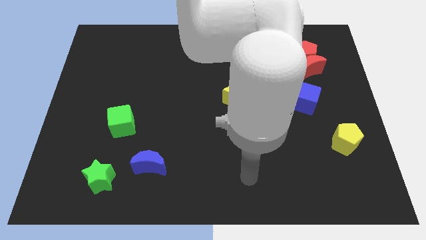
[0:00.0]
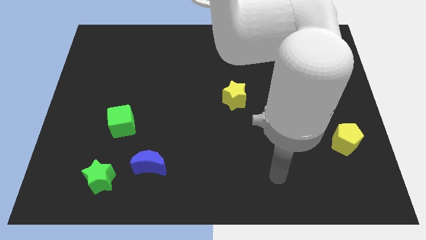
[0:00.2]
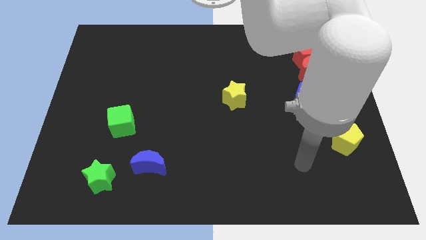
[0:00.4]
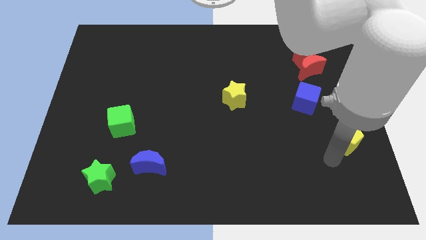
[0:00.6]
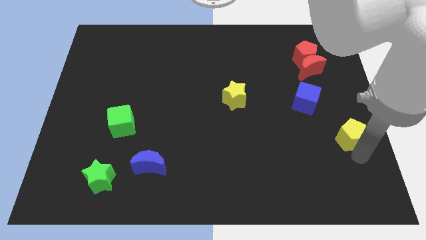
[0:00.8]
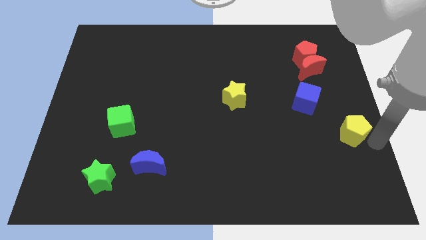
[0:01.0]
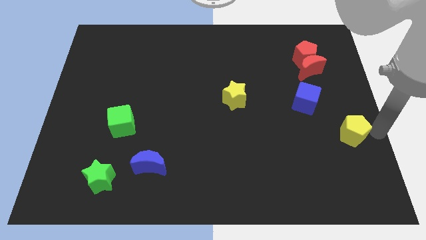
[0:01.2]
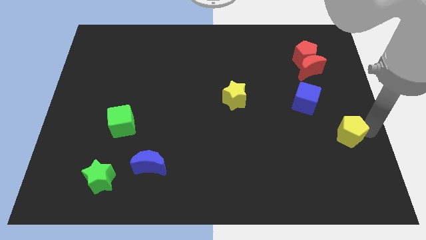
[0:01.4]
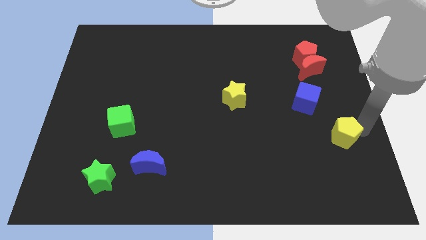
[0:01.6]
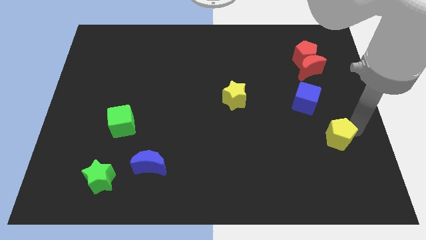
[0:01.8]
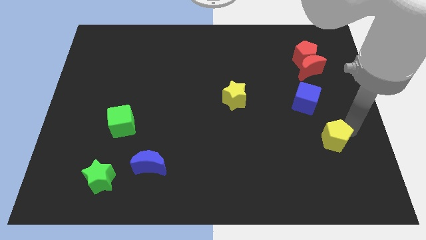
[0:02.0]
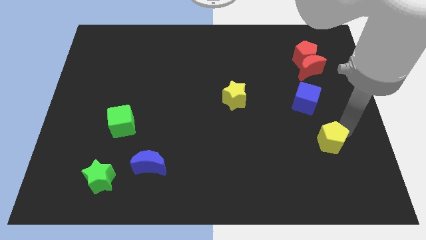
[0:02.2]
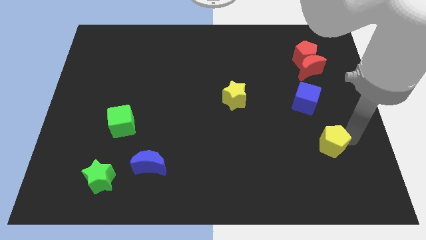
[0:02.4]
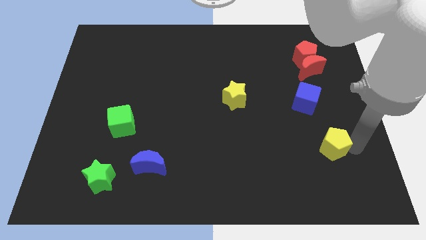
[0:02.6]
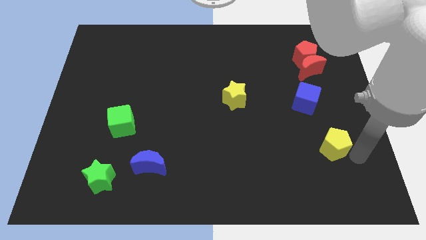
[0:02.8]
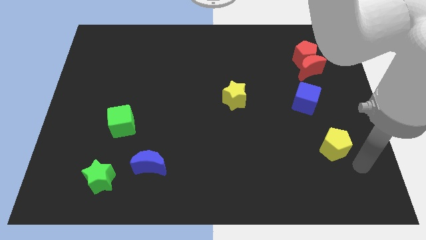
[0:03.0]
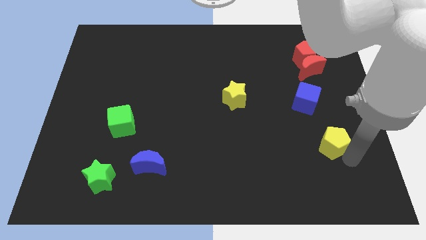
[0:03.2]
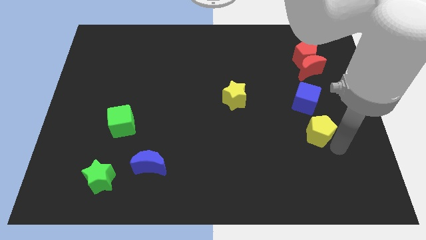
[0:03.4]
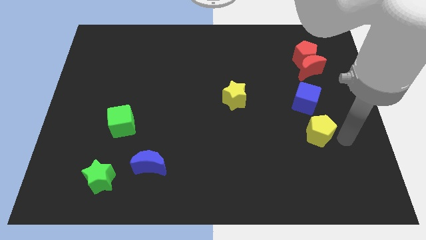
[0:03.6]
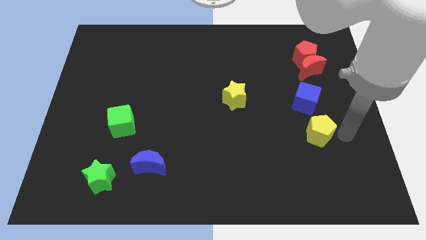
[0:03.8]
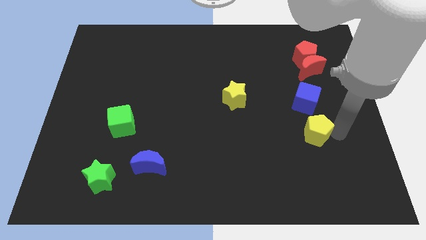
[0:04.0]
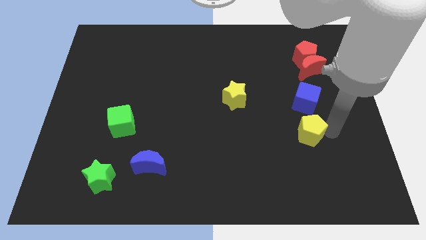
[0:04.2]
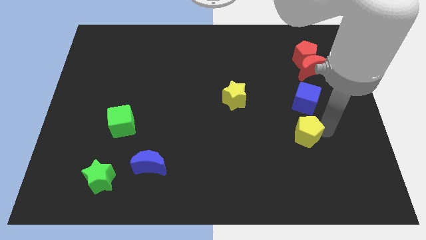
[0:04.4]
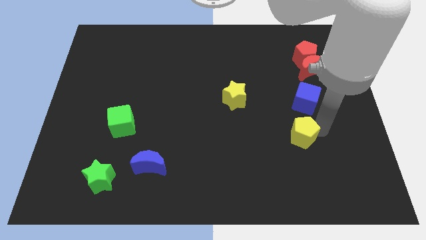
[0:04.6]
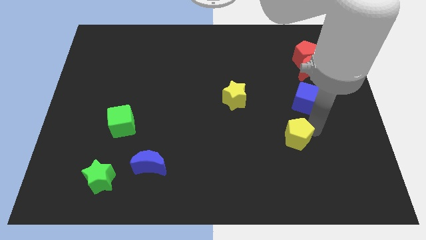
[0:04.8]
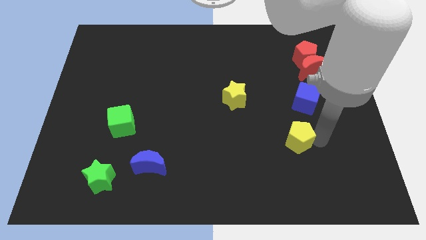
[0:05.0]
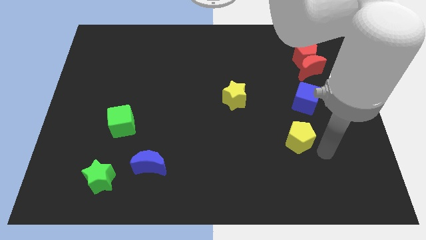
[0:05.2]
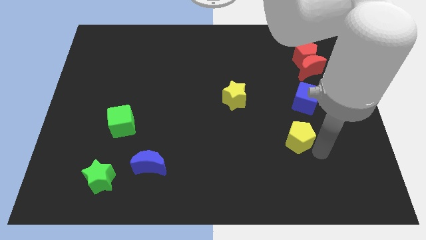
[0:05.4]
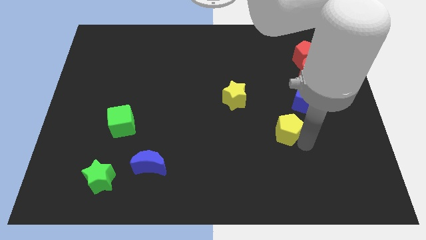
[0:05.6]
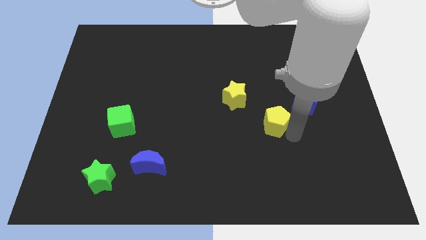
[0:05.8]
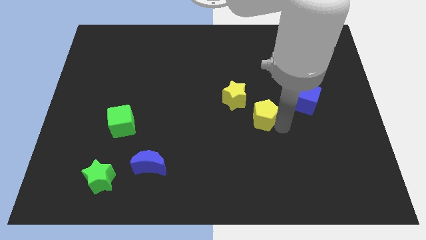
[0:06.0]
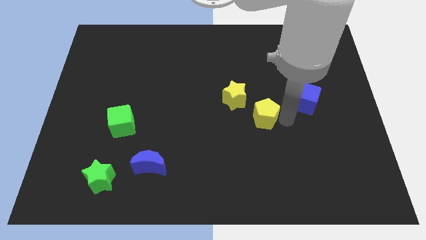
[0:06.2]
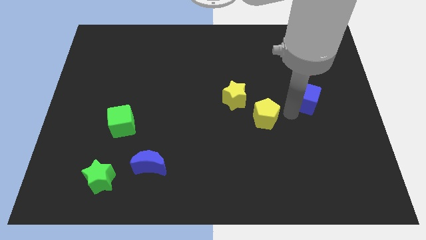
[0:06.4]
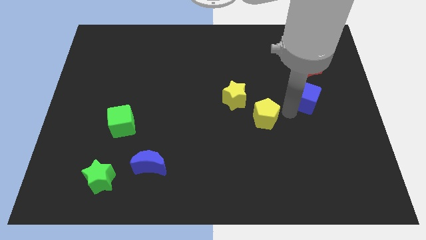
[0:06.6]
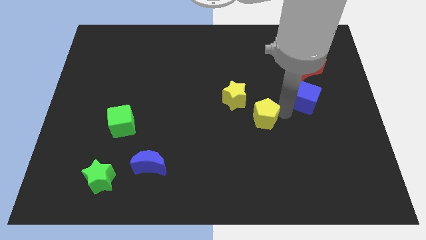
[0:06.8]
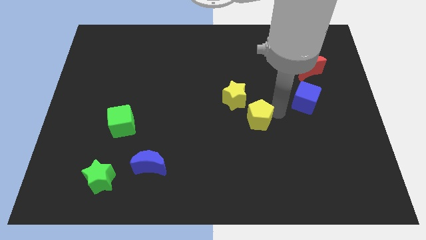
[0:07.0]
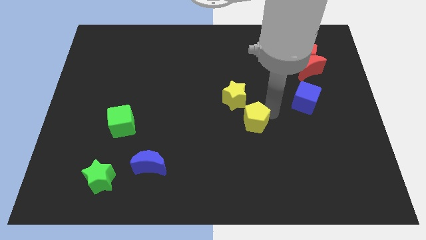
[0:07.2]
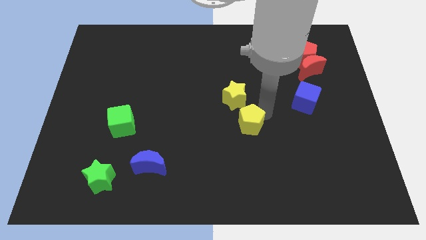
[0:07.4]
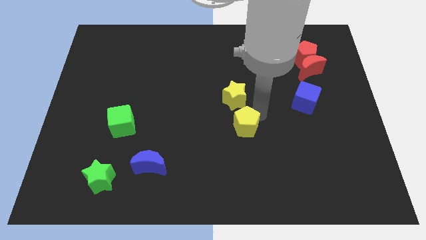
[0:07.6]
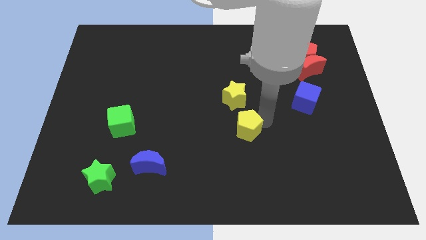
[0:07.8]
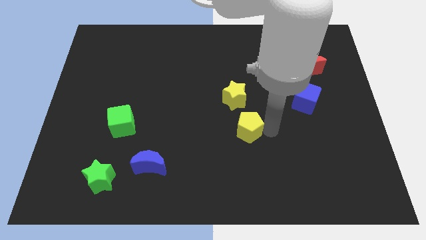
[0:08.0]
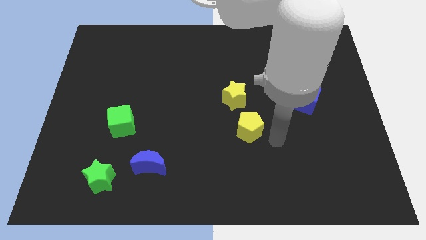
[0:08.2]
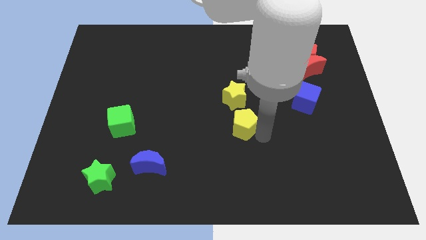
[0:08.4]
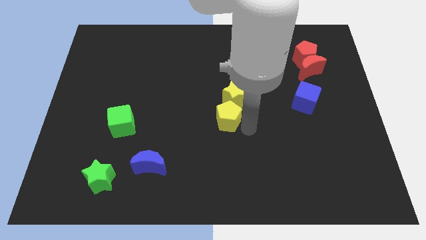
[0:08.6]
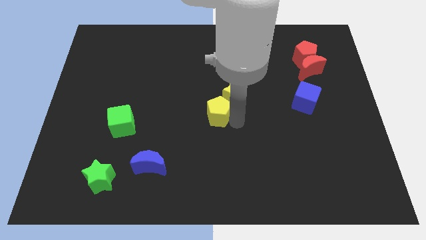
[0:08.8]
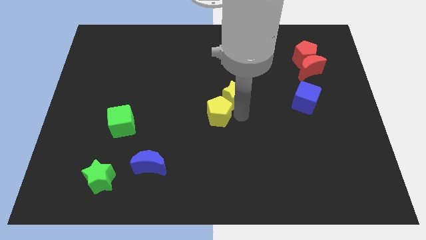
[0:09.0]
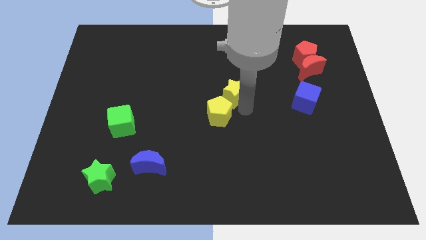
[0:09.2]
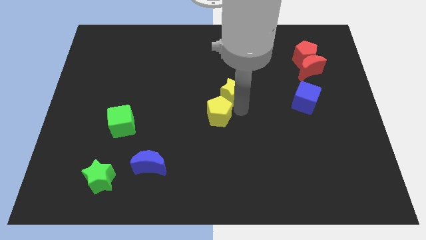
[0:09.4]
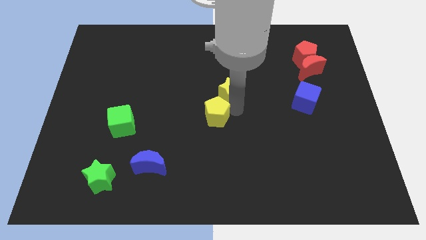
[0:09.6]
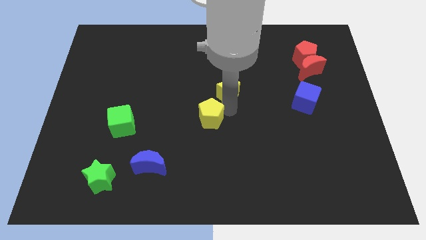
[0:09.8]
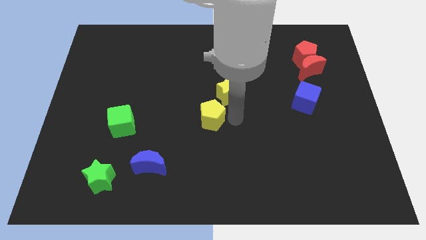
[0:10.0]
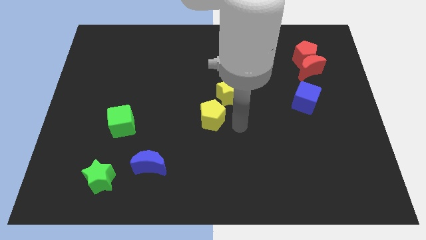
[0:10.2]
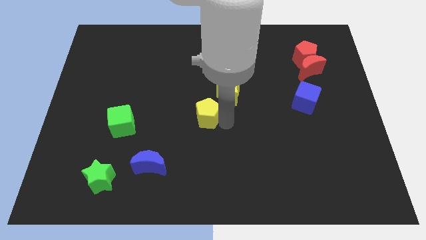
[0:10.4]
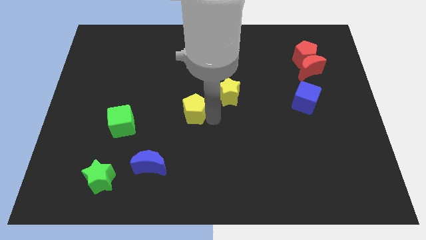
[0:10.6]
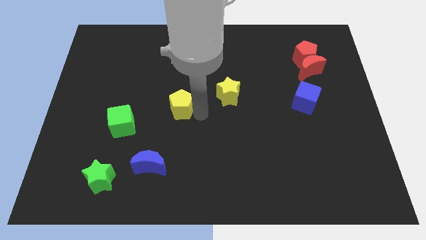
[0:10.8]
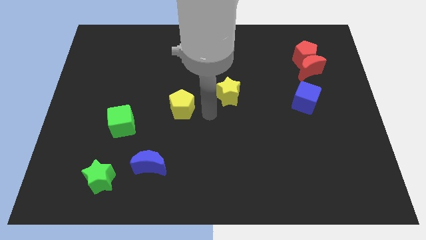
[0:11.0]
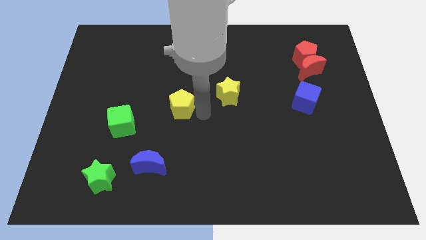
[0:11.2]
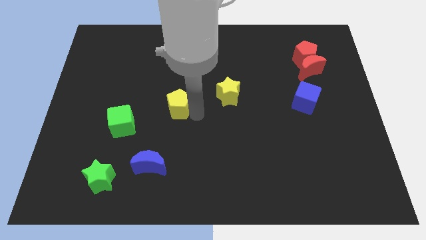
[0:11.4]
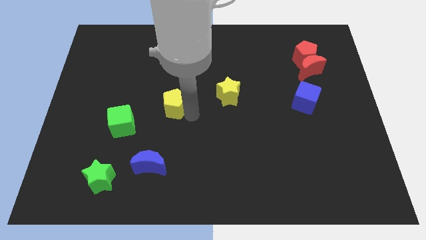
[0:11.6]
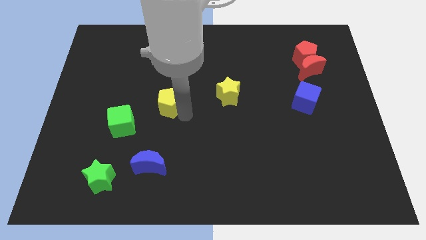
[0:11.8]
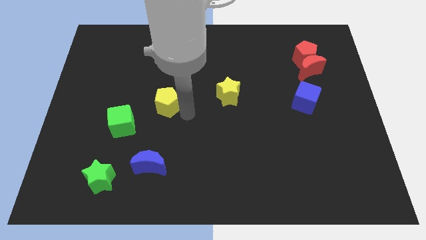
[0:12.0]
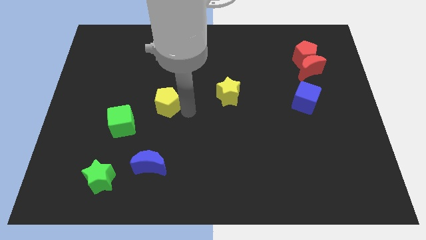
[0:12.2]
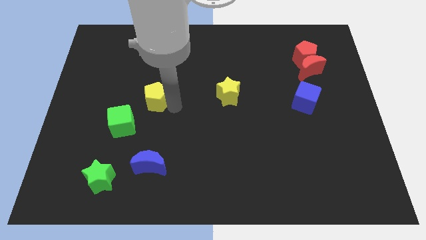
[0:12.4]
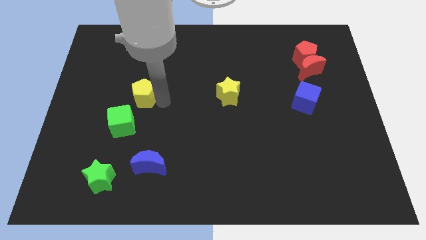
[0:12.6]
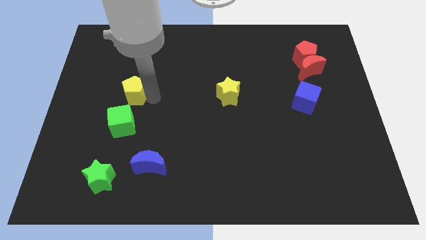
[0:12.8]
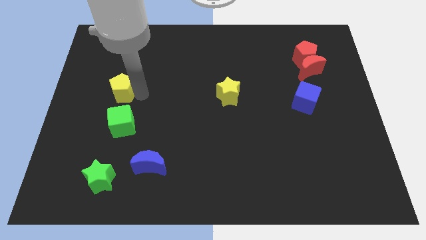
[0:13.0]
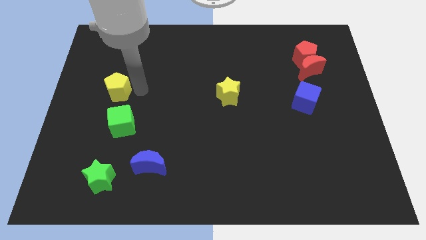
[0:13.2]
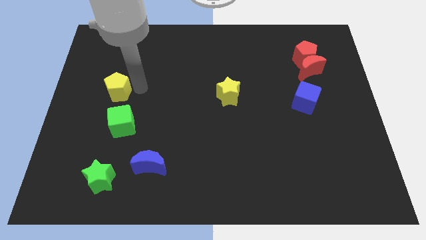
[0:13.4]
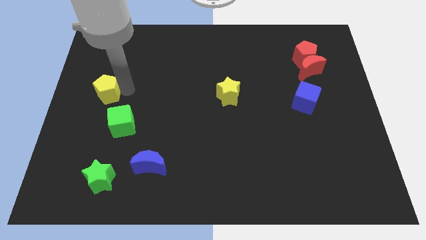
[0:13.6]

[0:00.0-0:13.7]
slide the yellow pentagon to the center left
